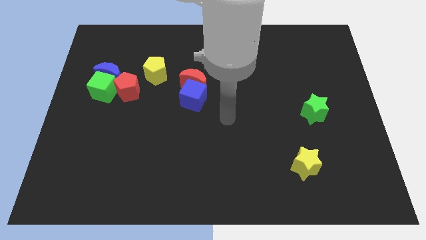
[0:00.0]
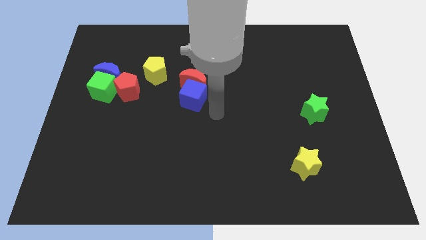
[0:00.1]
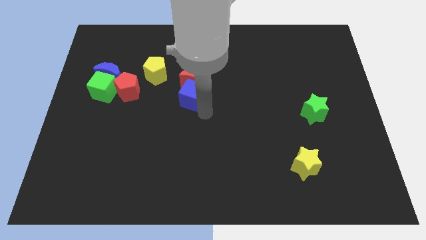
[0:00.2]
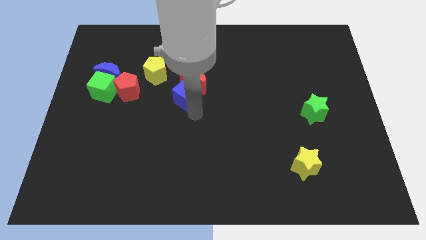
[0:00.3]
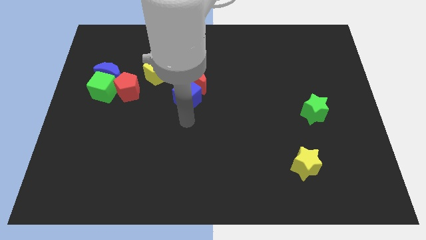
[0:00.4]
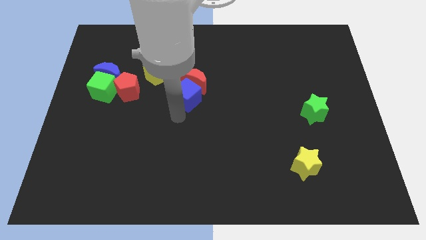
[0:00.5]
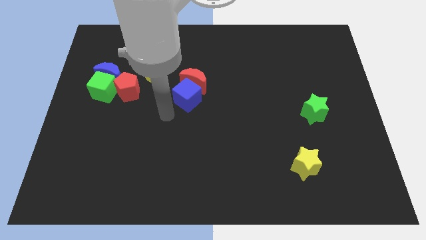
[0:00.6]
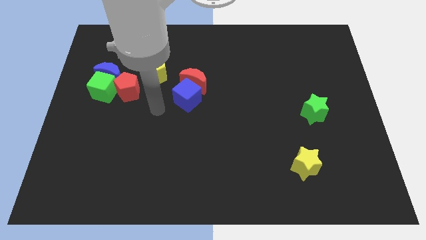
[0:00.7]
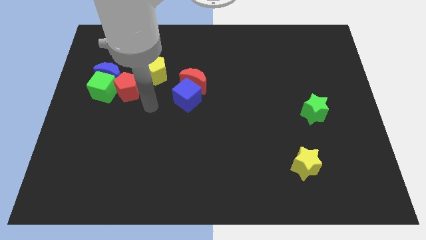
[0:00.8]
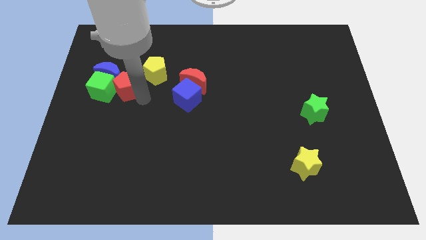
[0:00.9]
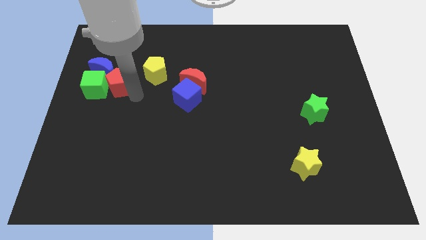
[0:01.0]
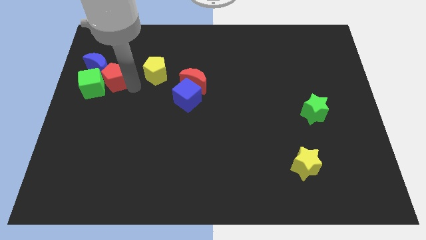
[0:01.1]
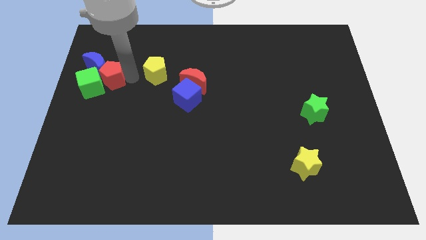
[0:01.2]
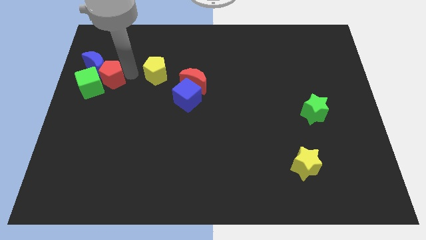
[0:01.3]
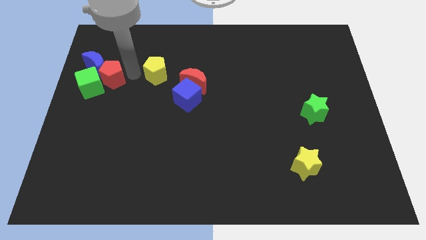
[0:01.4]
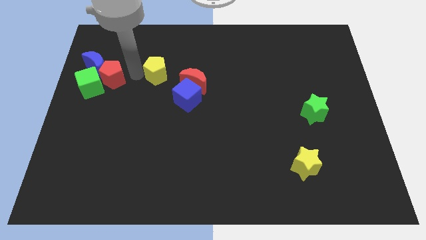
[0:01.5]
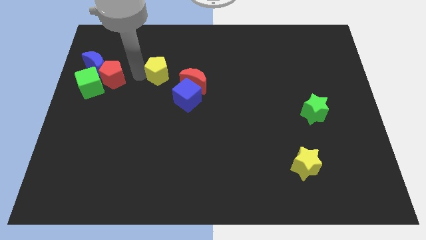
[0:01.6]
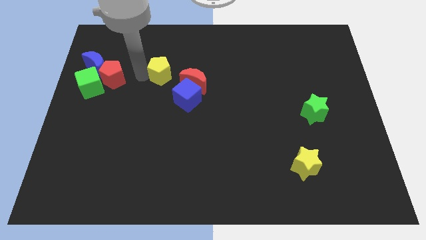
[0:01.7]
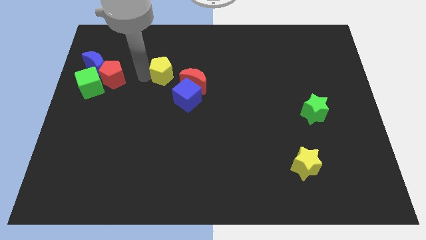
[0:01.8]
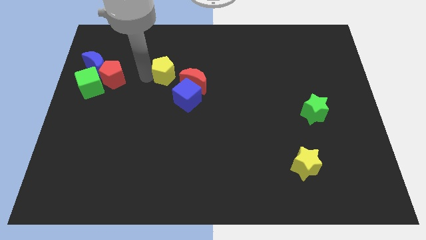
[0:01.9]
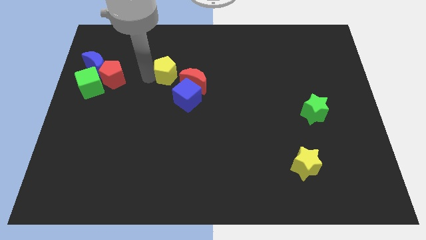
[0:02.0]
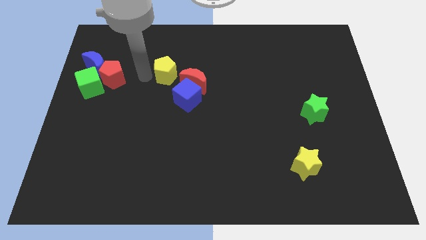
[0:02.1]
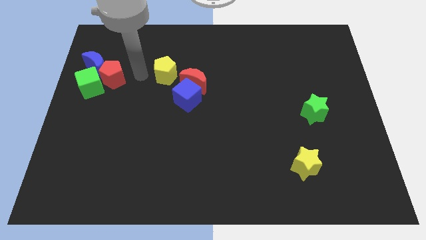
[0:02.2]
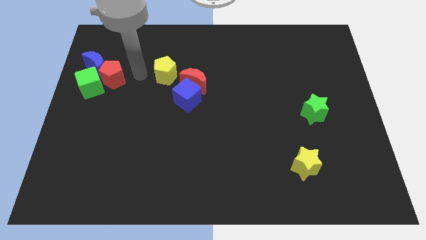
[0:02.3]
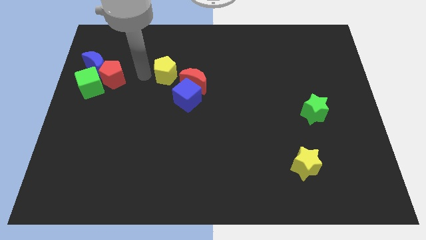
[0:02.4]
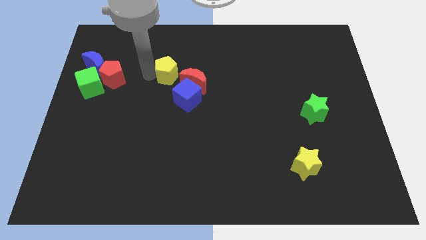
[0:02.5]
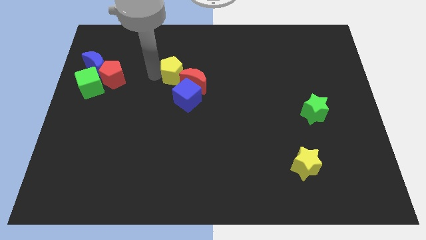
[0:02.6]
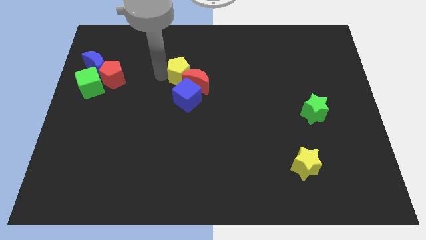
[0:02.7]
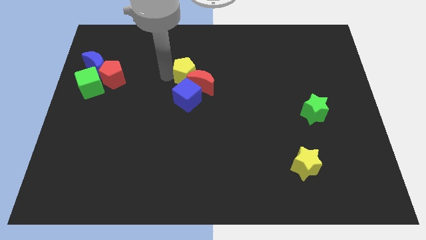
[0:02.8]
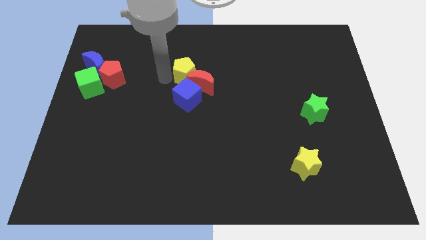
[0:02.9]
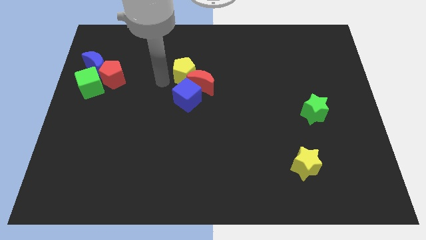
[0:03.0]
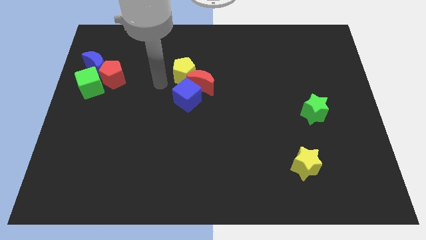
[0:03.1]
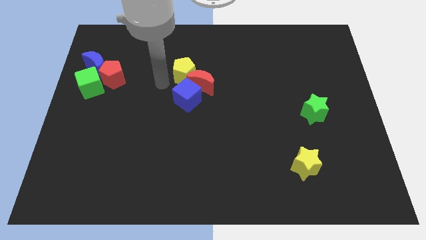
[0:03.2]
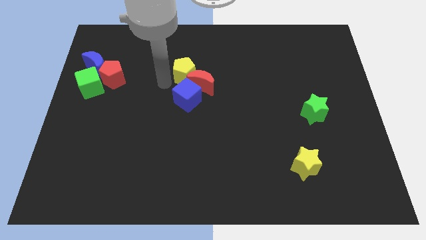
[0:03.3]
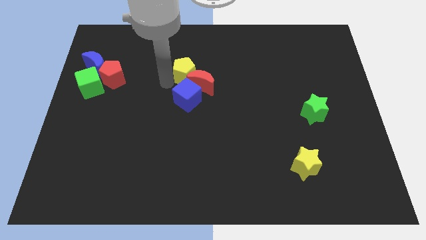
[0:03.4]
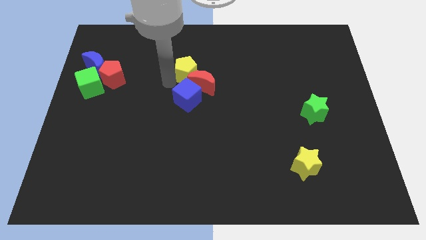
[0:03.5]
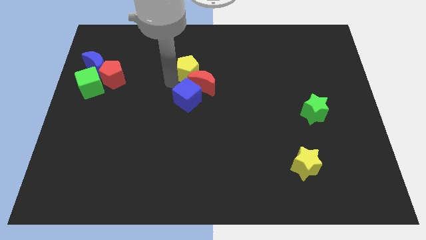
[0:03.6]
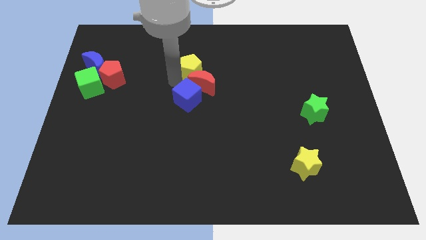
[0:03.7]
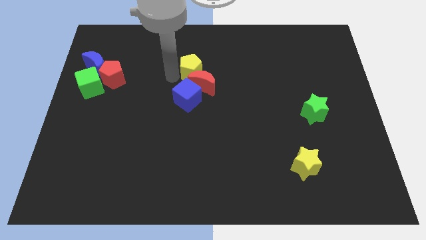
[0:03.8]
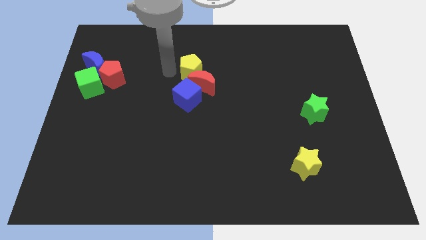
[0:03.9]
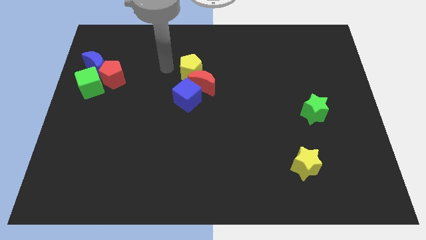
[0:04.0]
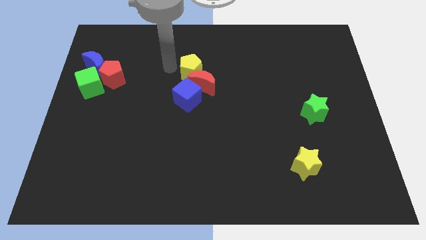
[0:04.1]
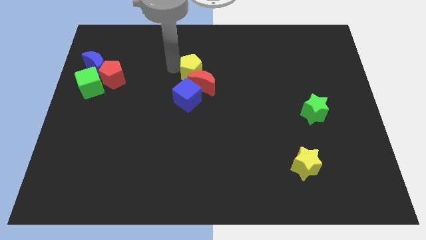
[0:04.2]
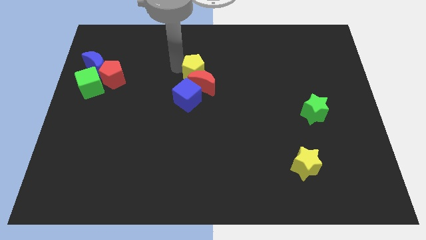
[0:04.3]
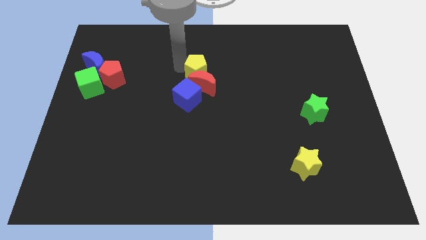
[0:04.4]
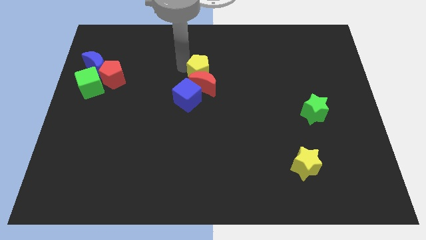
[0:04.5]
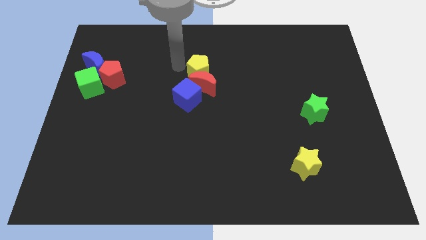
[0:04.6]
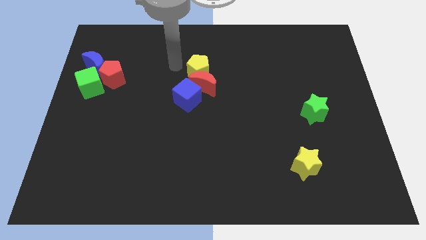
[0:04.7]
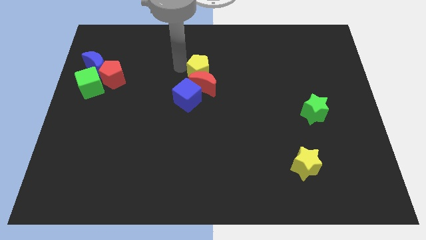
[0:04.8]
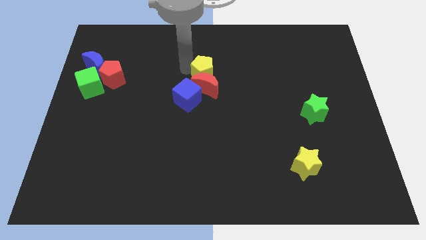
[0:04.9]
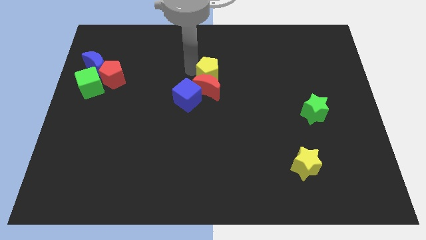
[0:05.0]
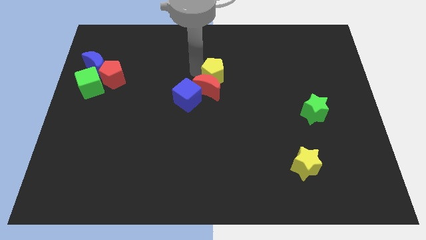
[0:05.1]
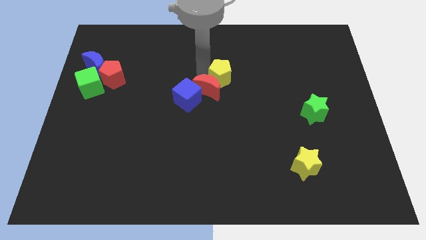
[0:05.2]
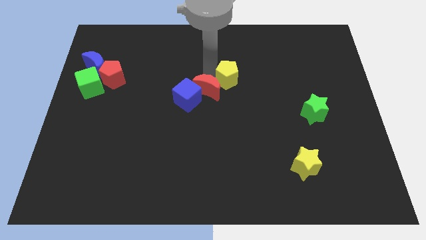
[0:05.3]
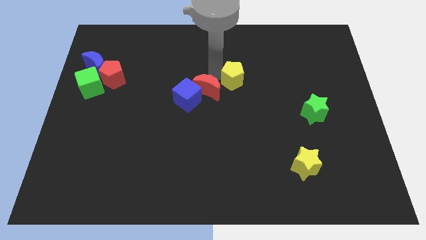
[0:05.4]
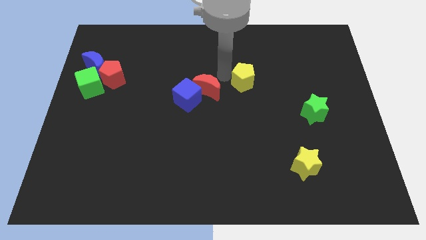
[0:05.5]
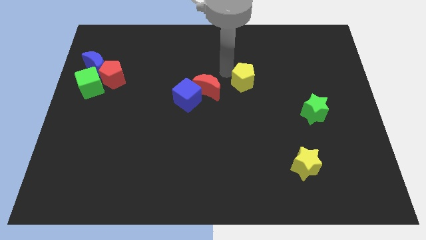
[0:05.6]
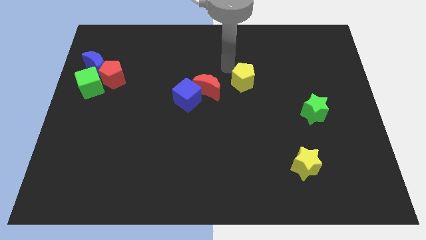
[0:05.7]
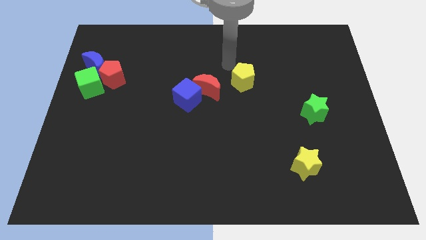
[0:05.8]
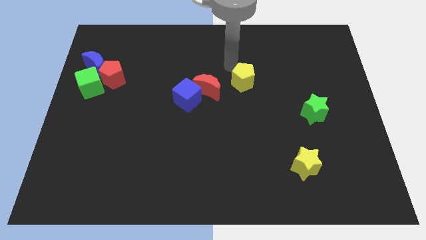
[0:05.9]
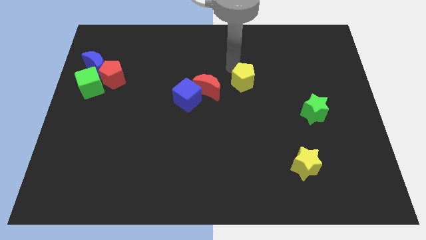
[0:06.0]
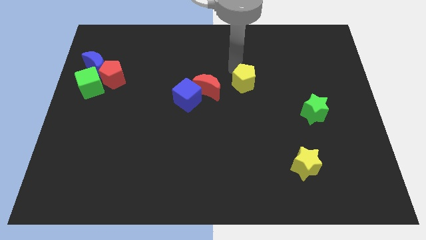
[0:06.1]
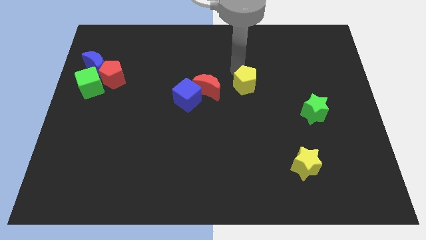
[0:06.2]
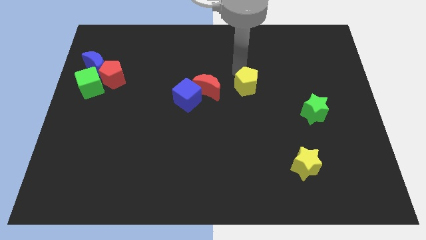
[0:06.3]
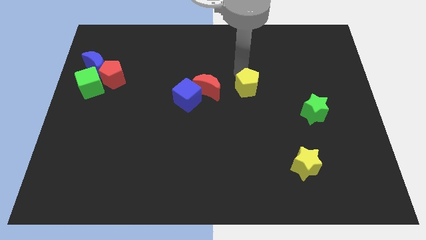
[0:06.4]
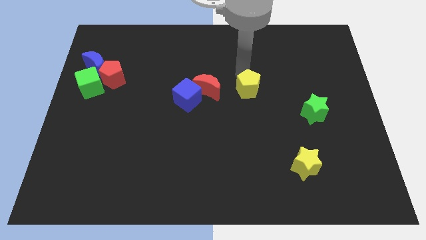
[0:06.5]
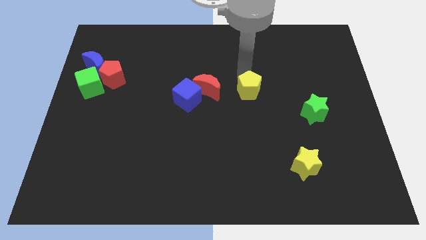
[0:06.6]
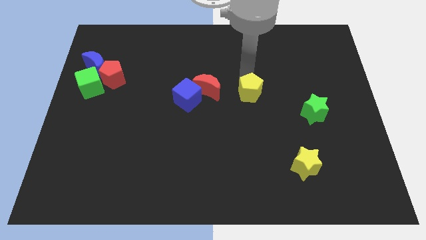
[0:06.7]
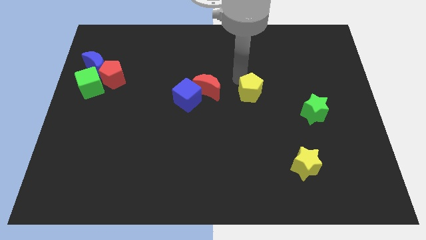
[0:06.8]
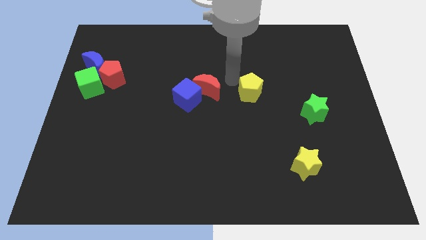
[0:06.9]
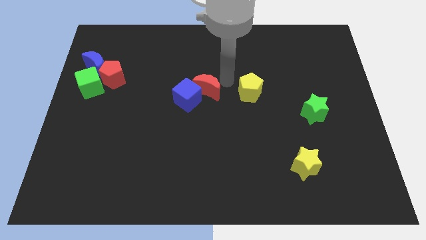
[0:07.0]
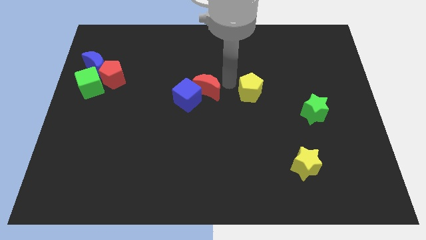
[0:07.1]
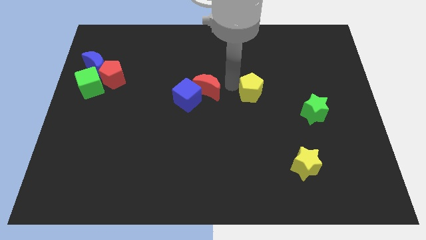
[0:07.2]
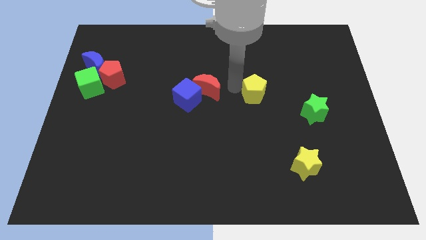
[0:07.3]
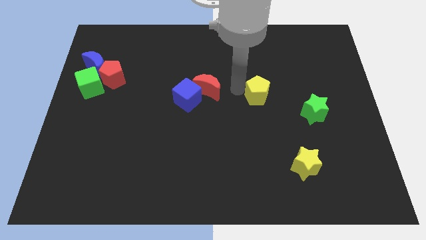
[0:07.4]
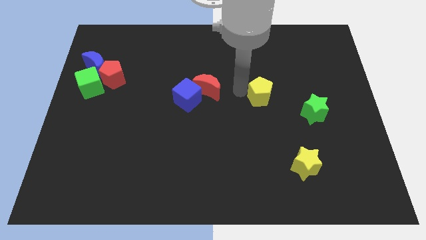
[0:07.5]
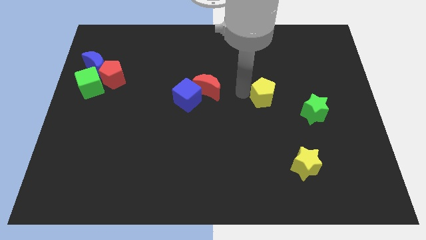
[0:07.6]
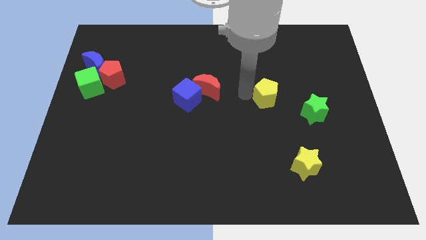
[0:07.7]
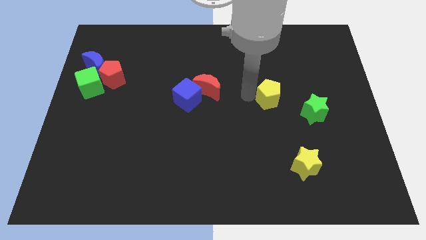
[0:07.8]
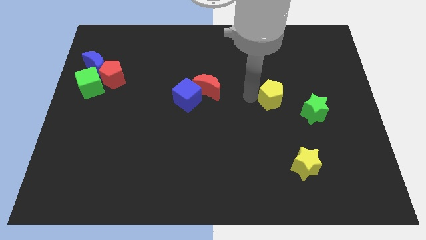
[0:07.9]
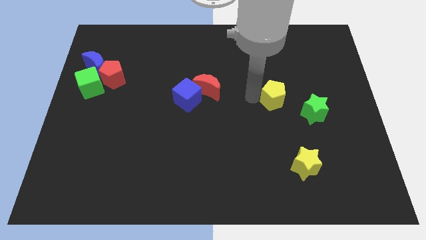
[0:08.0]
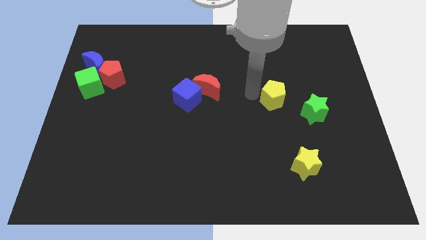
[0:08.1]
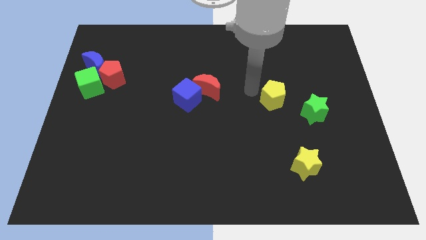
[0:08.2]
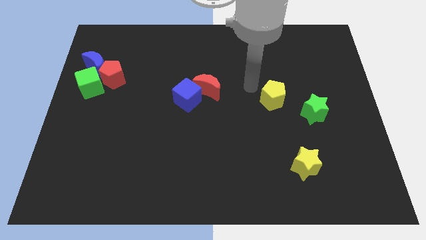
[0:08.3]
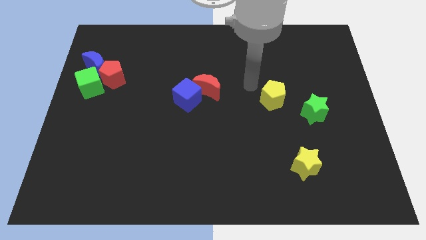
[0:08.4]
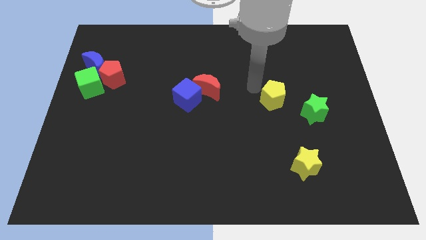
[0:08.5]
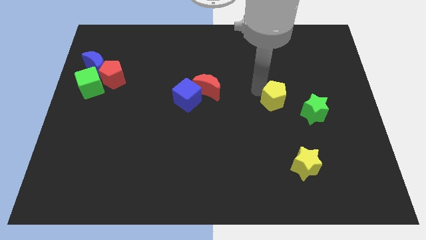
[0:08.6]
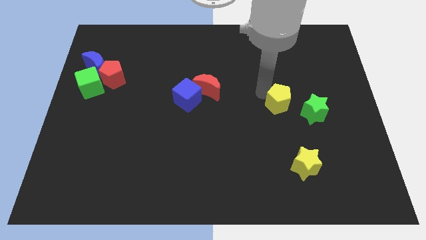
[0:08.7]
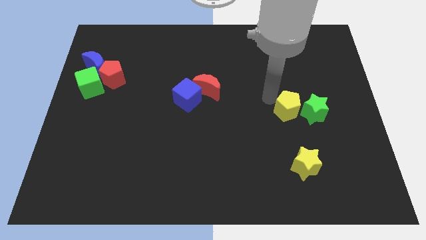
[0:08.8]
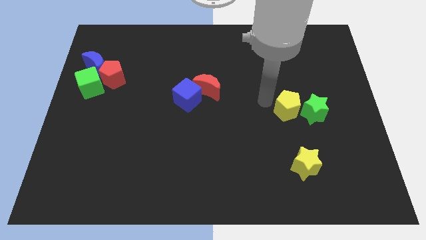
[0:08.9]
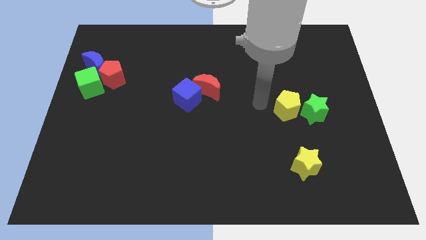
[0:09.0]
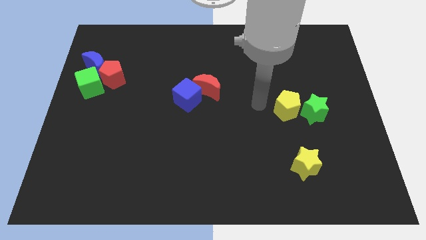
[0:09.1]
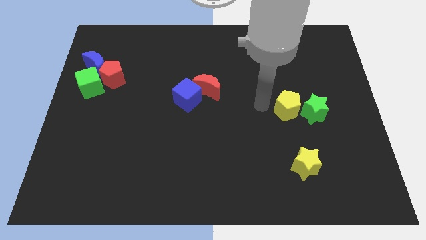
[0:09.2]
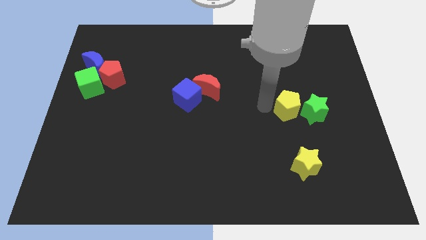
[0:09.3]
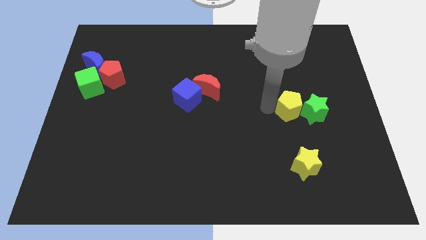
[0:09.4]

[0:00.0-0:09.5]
push the yellow pentagon to the green star
